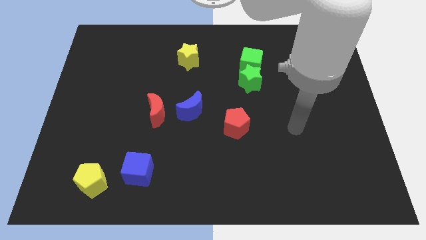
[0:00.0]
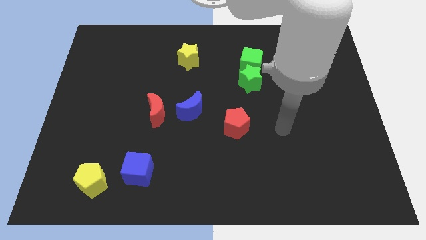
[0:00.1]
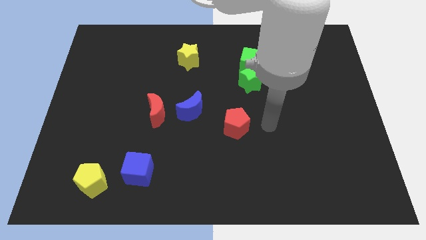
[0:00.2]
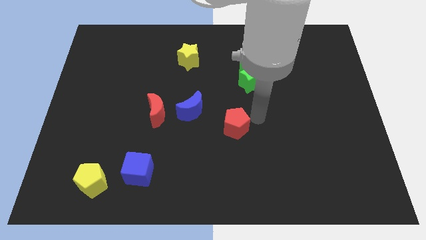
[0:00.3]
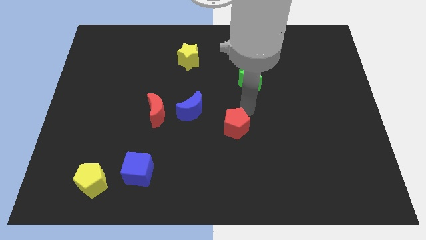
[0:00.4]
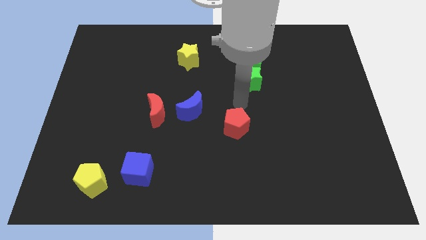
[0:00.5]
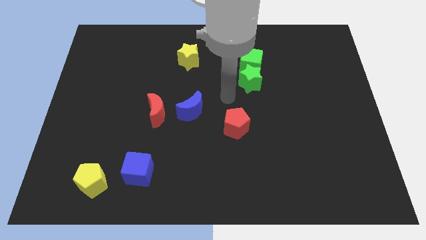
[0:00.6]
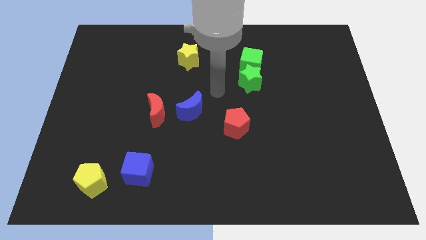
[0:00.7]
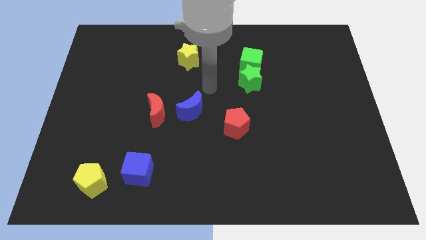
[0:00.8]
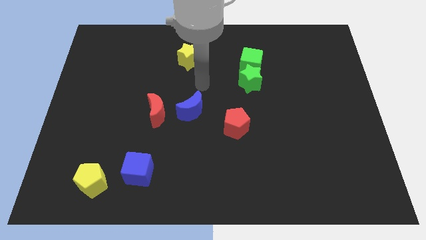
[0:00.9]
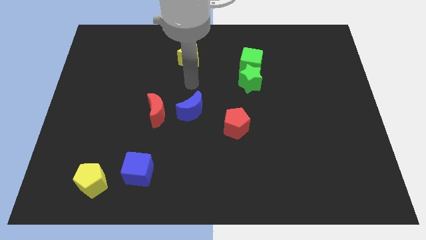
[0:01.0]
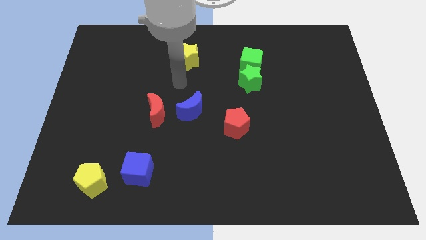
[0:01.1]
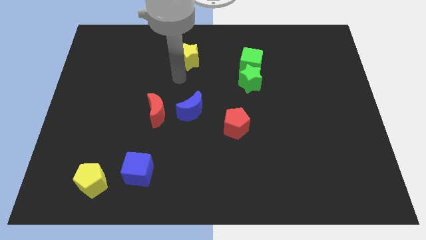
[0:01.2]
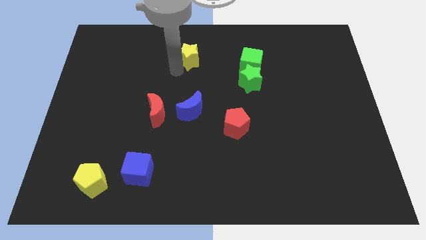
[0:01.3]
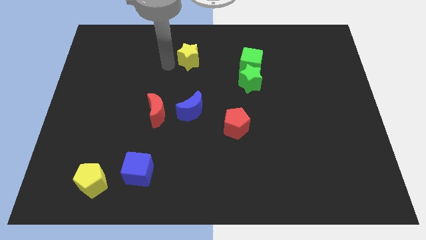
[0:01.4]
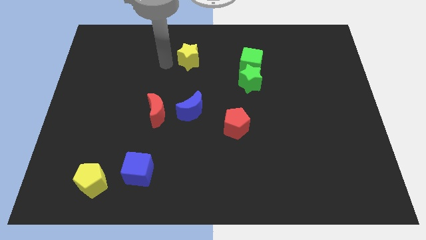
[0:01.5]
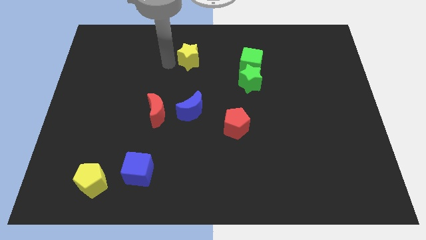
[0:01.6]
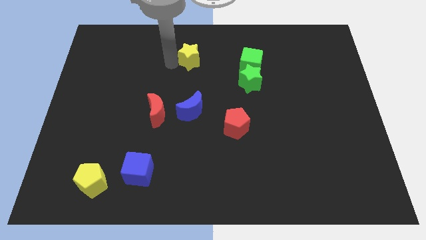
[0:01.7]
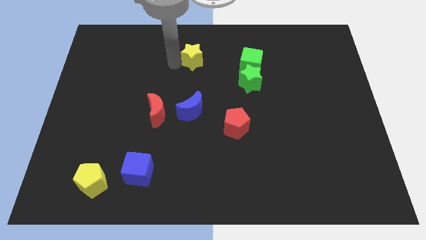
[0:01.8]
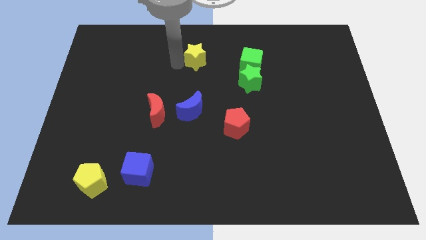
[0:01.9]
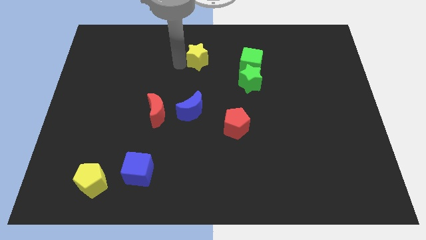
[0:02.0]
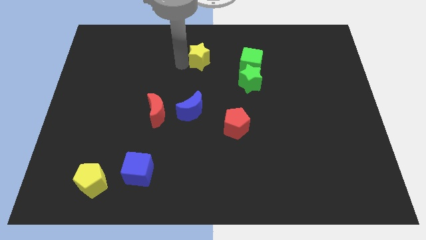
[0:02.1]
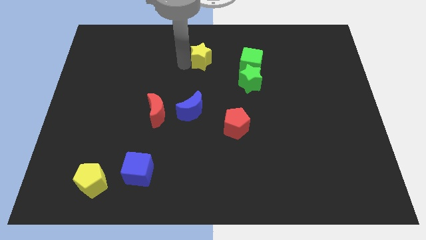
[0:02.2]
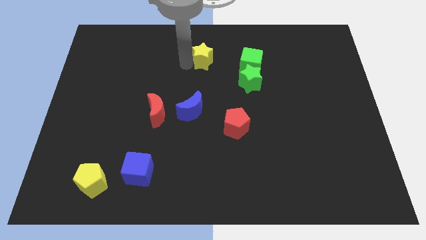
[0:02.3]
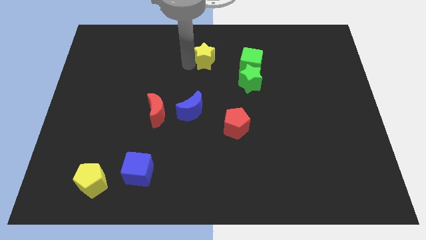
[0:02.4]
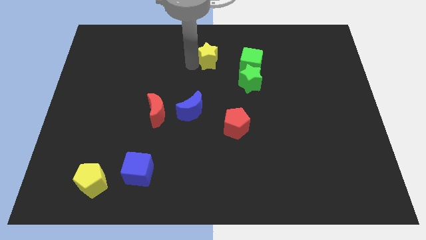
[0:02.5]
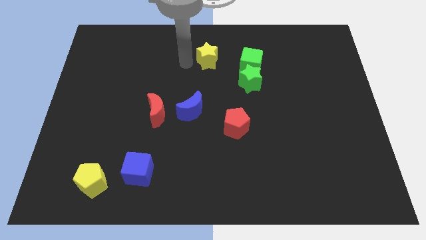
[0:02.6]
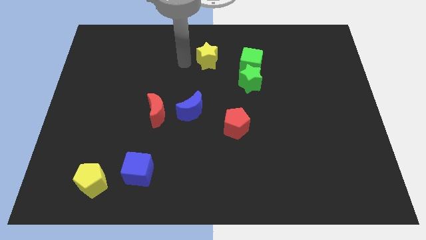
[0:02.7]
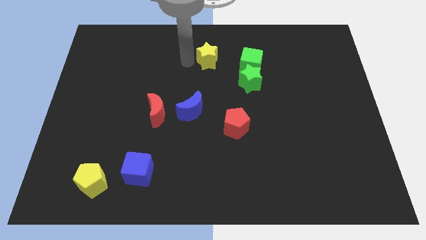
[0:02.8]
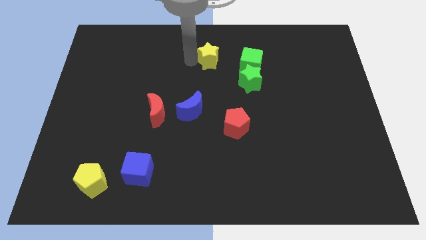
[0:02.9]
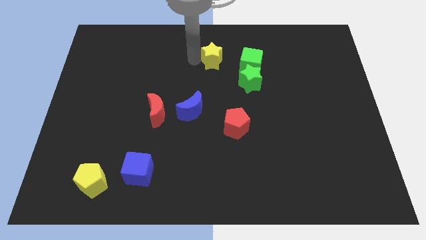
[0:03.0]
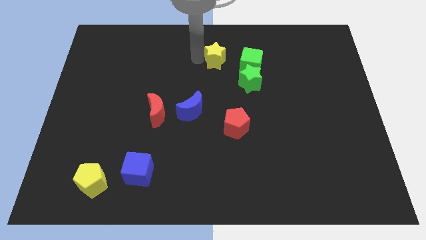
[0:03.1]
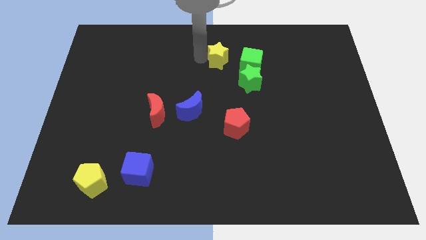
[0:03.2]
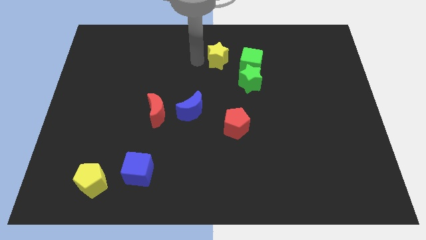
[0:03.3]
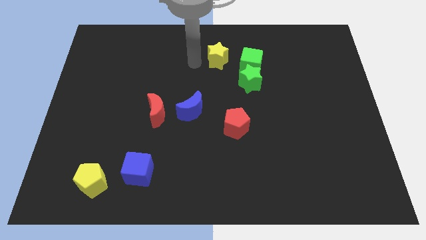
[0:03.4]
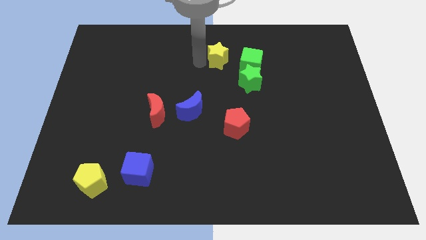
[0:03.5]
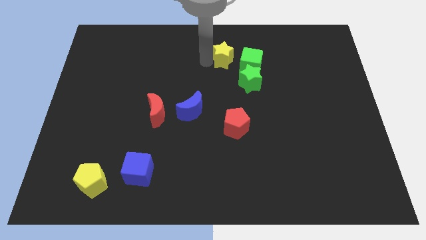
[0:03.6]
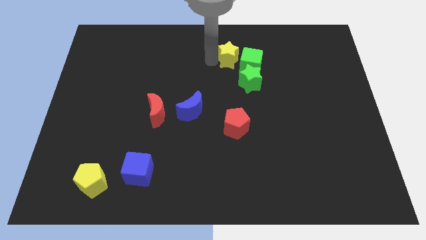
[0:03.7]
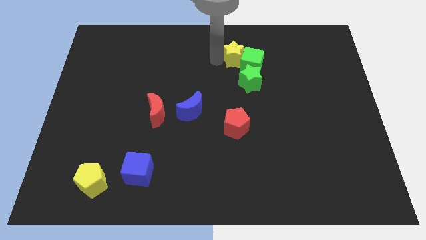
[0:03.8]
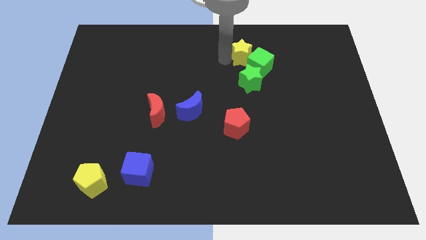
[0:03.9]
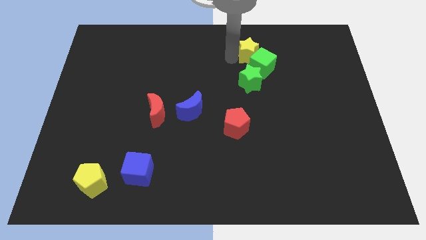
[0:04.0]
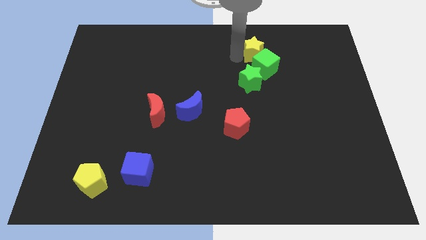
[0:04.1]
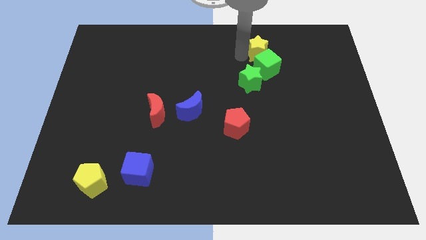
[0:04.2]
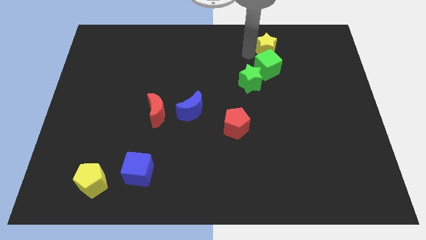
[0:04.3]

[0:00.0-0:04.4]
push the yellow star right

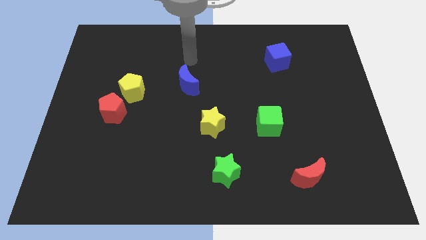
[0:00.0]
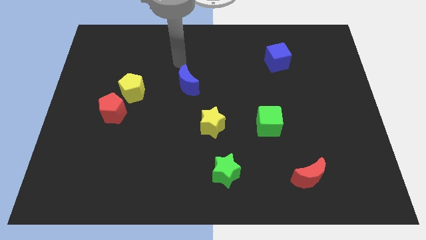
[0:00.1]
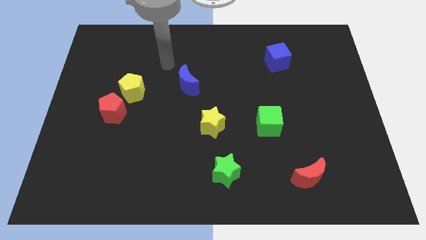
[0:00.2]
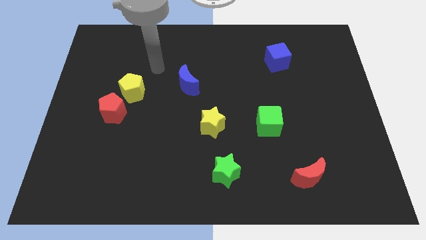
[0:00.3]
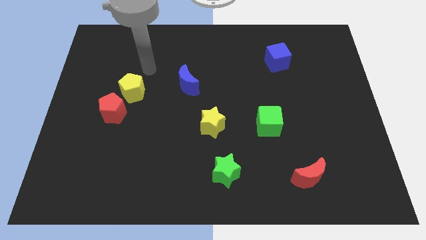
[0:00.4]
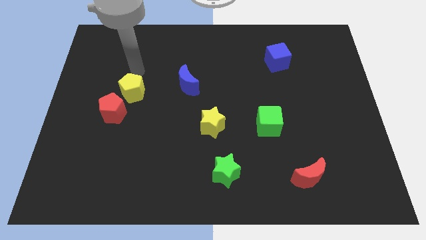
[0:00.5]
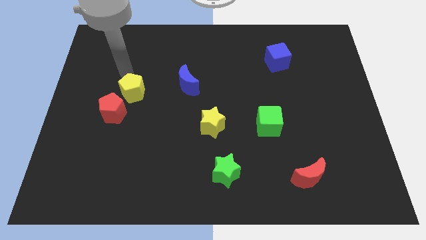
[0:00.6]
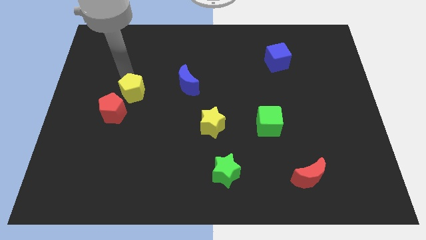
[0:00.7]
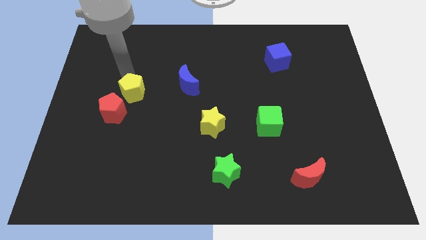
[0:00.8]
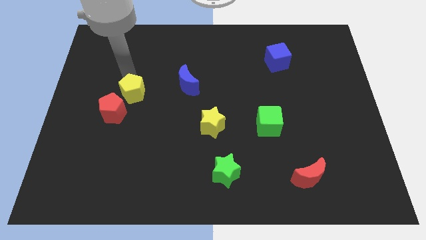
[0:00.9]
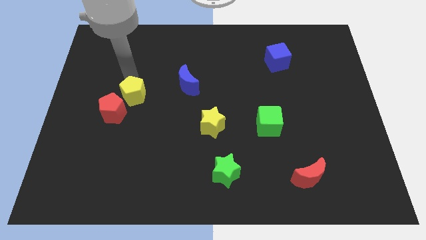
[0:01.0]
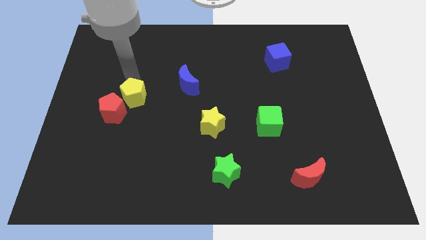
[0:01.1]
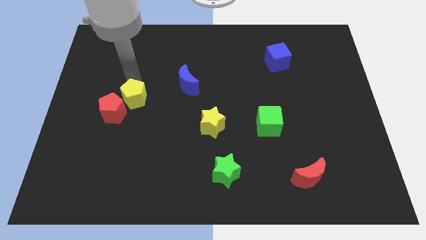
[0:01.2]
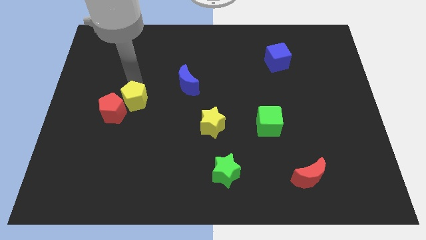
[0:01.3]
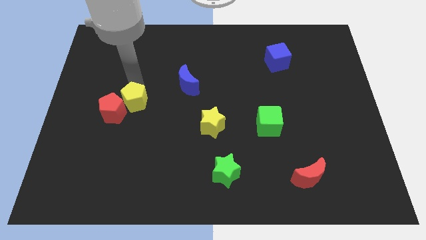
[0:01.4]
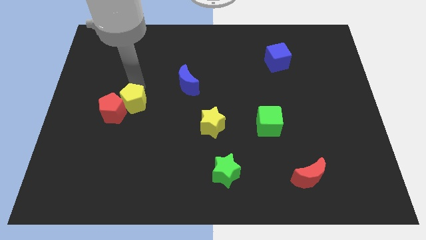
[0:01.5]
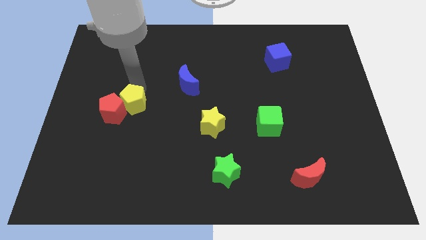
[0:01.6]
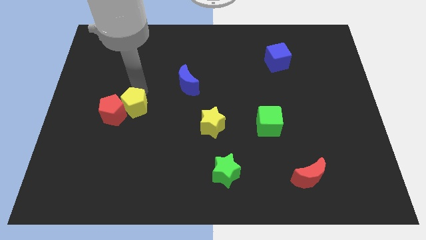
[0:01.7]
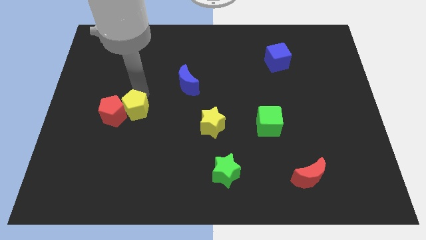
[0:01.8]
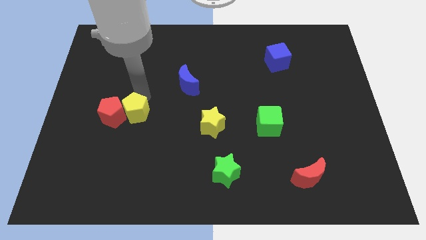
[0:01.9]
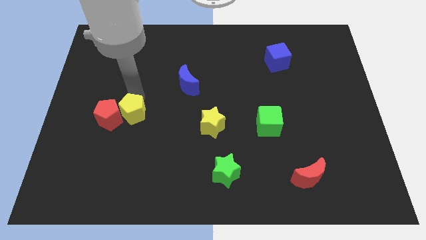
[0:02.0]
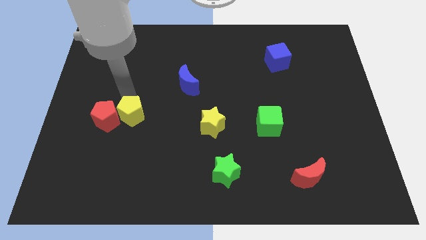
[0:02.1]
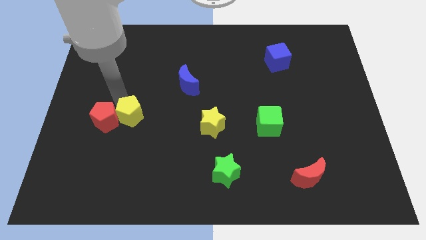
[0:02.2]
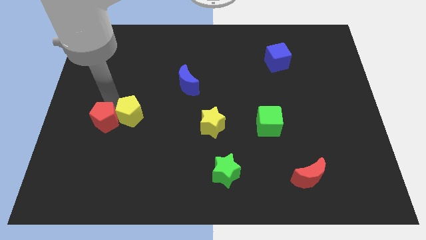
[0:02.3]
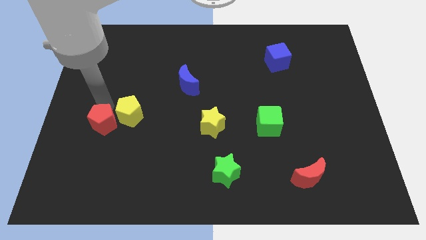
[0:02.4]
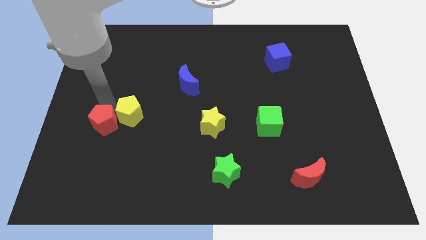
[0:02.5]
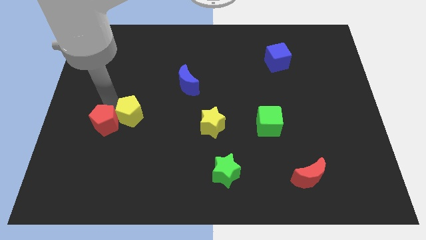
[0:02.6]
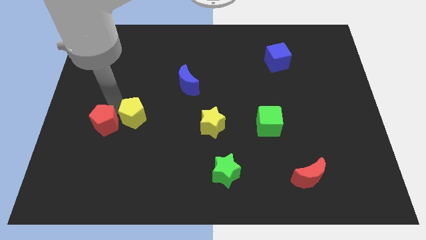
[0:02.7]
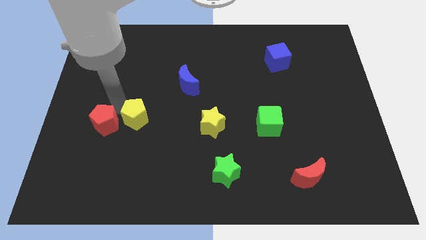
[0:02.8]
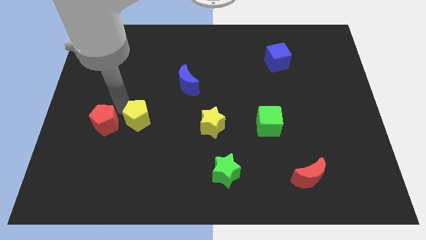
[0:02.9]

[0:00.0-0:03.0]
slide the yellow pentagon diagonally down and to the right a little

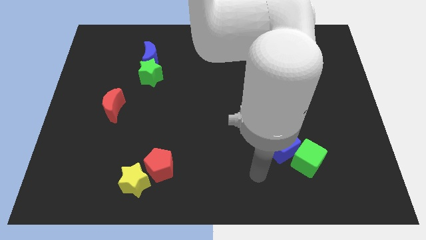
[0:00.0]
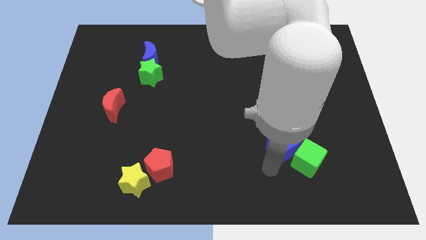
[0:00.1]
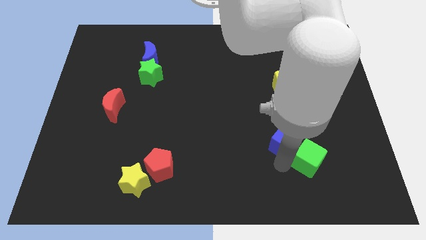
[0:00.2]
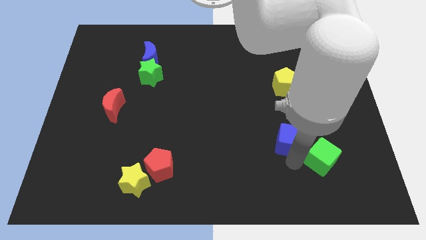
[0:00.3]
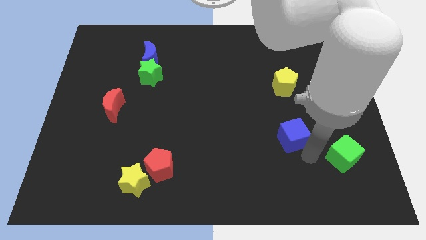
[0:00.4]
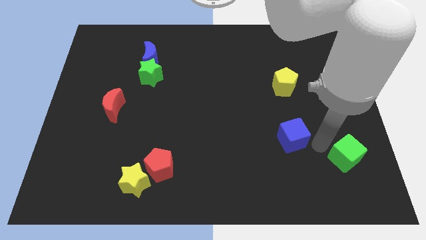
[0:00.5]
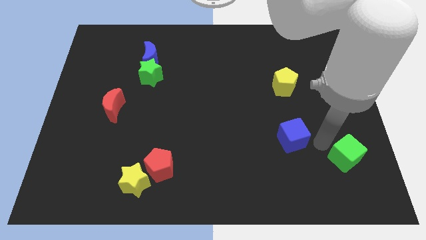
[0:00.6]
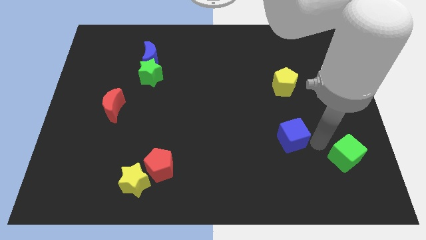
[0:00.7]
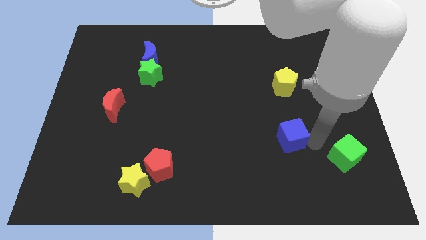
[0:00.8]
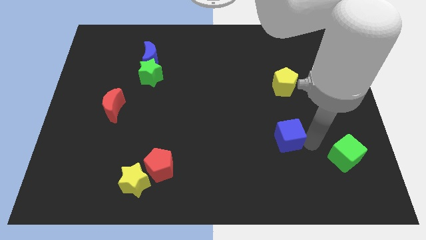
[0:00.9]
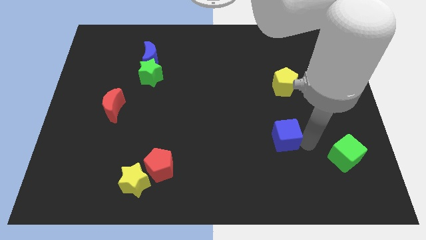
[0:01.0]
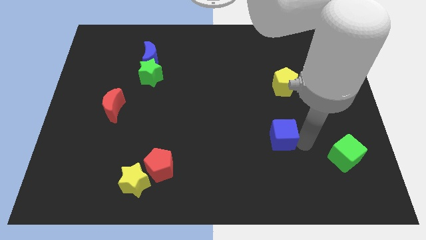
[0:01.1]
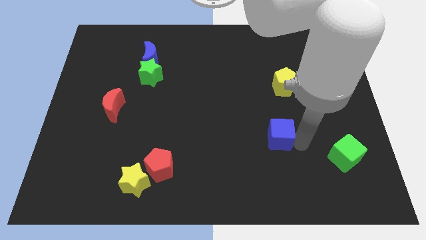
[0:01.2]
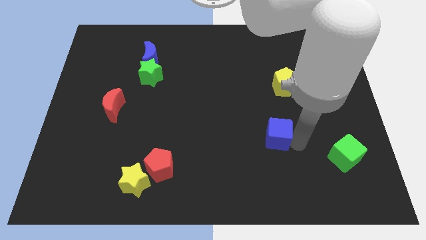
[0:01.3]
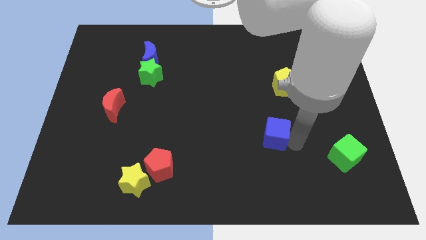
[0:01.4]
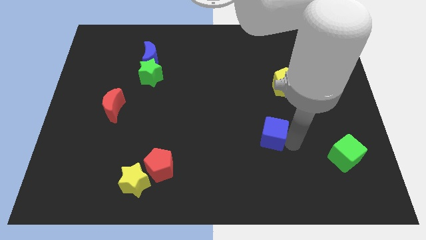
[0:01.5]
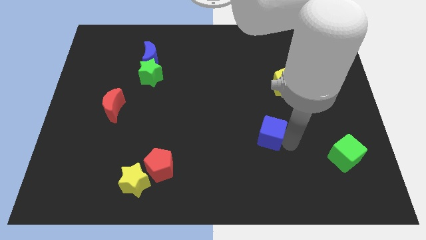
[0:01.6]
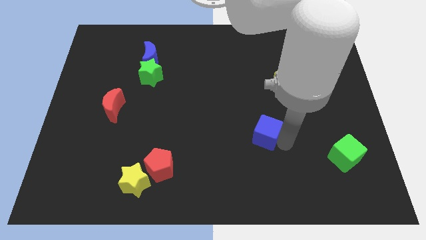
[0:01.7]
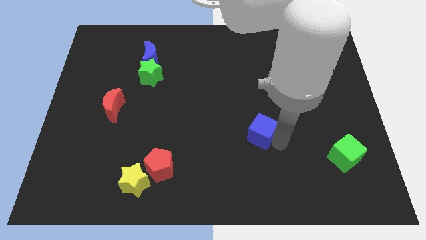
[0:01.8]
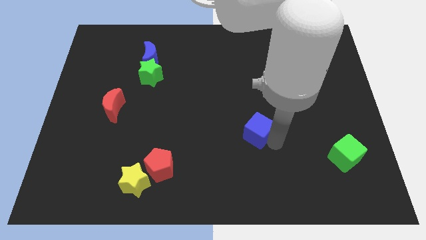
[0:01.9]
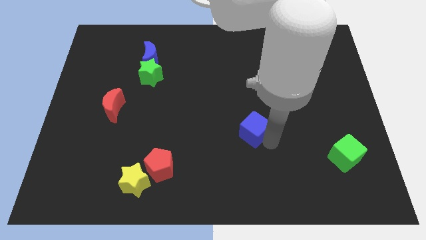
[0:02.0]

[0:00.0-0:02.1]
push the blue cube up and left diagonally a little bit
